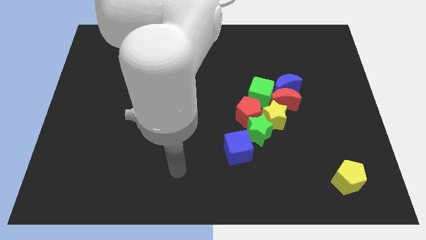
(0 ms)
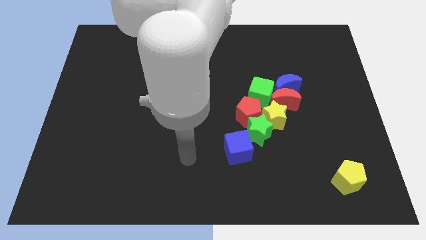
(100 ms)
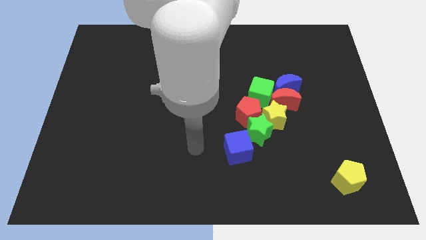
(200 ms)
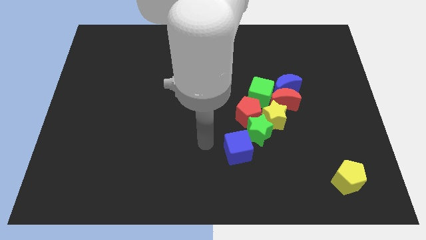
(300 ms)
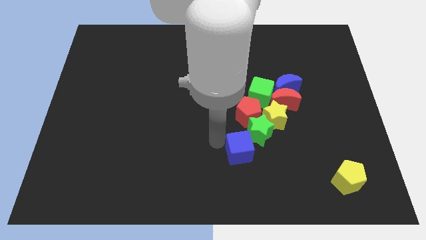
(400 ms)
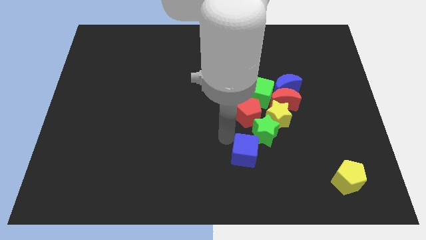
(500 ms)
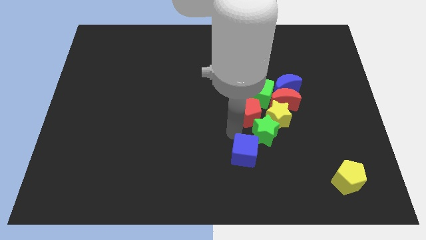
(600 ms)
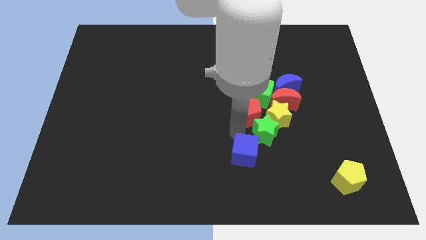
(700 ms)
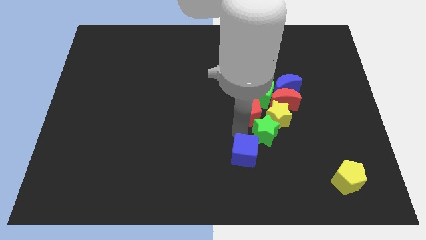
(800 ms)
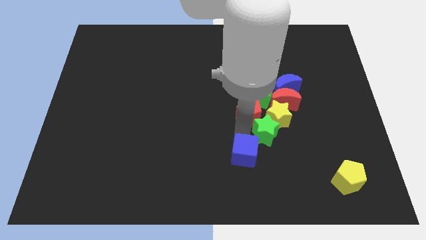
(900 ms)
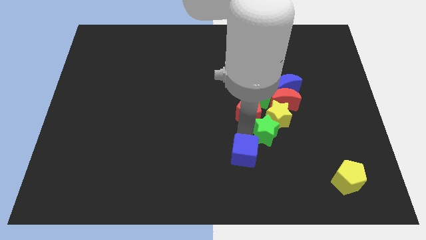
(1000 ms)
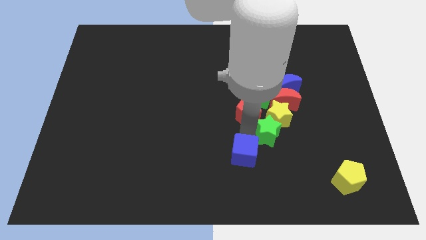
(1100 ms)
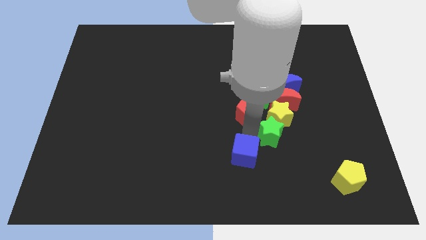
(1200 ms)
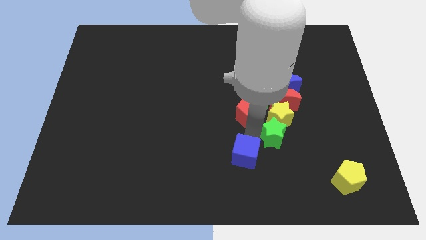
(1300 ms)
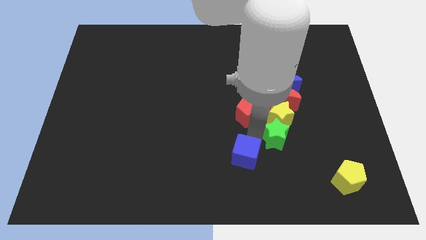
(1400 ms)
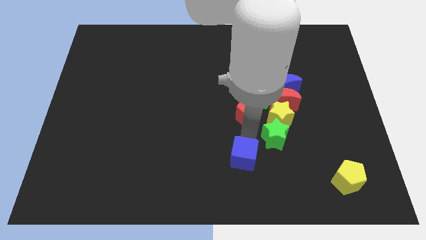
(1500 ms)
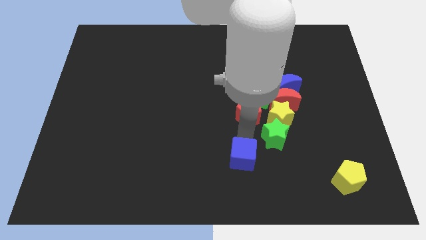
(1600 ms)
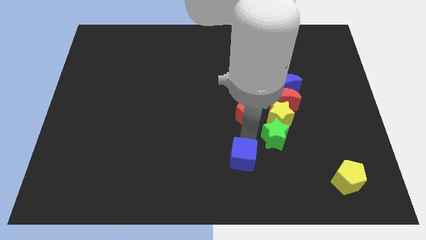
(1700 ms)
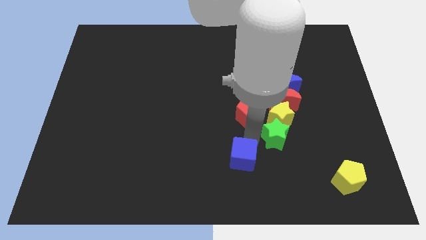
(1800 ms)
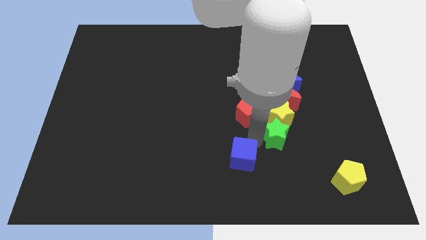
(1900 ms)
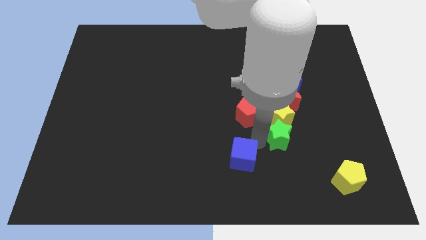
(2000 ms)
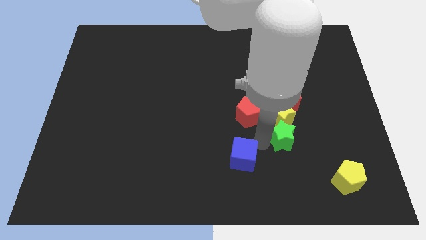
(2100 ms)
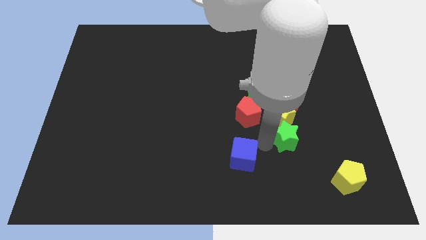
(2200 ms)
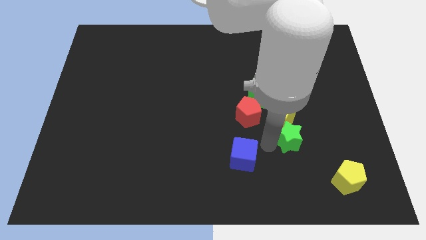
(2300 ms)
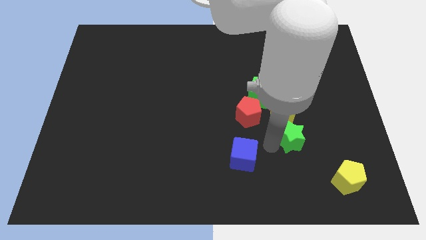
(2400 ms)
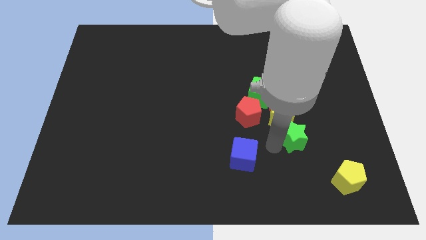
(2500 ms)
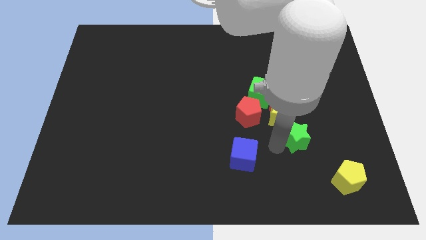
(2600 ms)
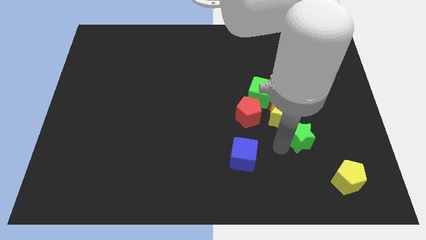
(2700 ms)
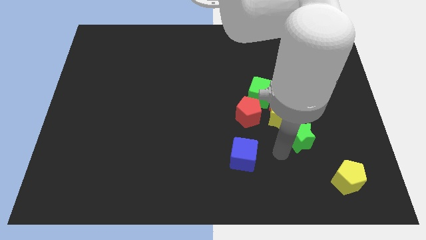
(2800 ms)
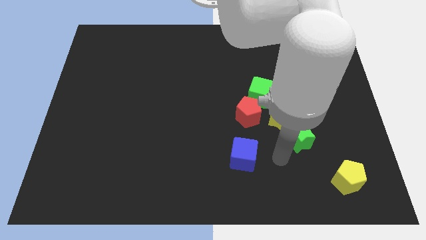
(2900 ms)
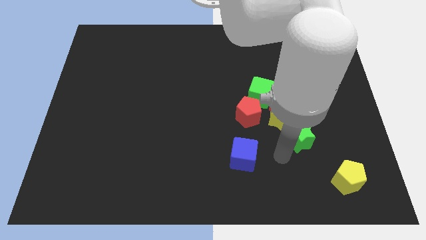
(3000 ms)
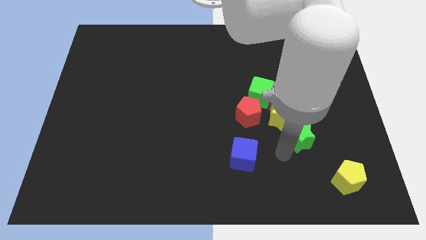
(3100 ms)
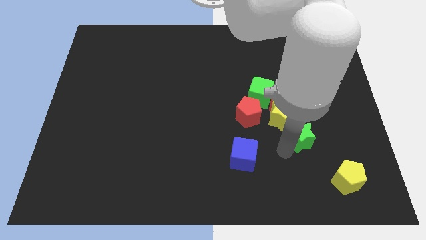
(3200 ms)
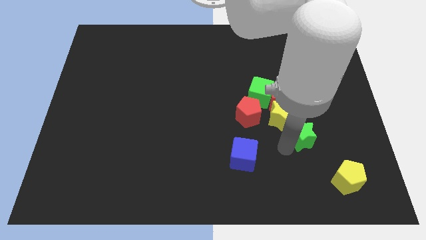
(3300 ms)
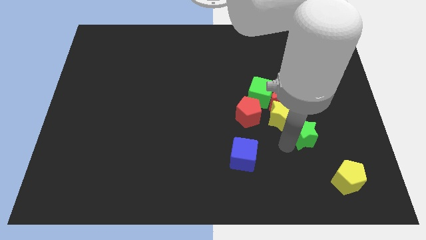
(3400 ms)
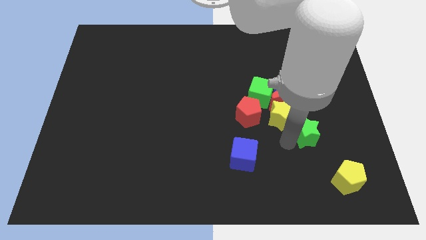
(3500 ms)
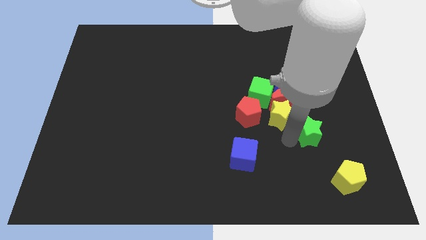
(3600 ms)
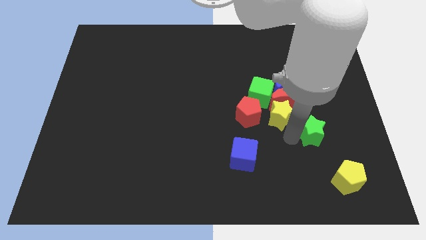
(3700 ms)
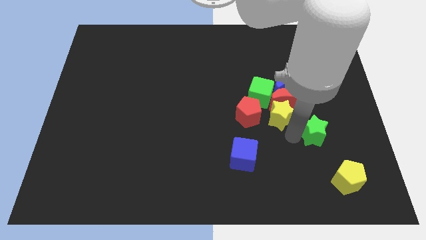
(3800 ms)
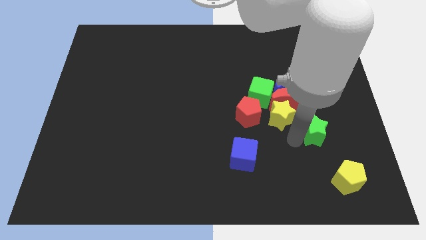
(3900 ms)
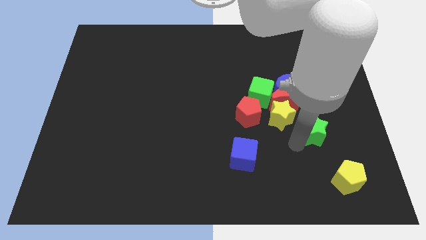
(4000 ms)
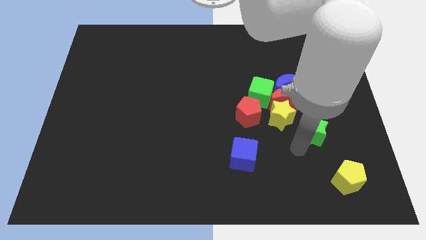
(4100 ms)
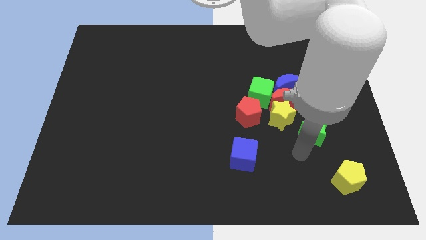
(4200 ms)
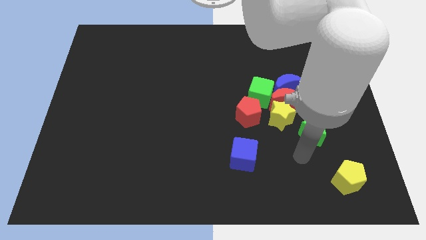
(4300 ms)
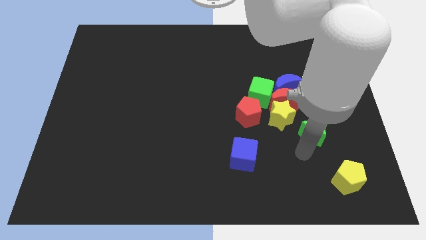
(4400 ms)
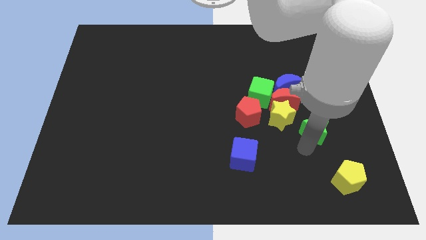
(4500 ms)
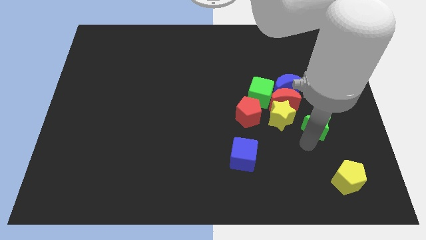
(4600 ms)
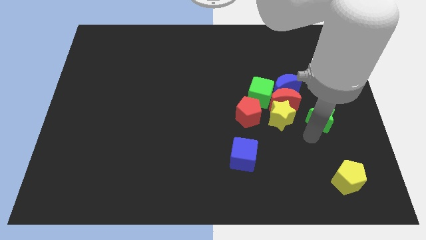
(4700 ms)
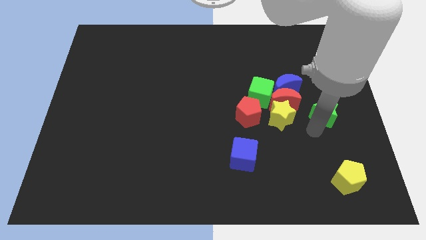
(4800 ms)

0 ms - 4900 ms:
slide the green star to the right side of the red moon

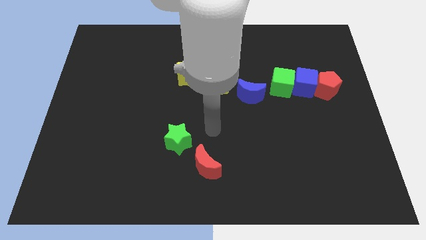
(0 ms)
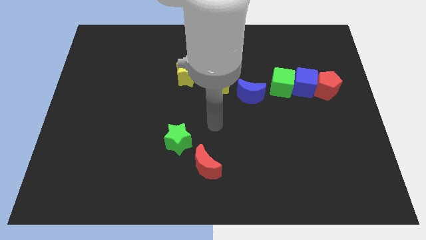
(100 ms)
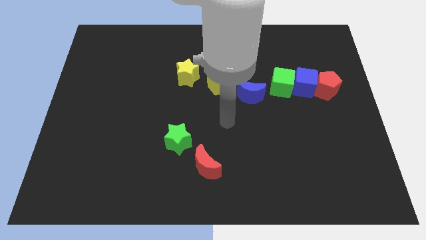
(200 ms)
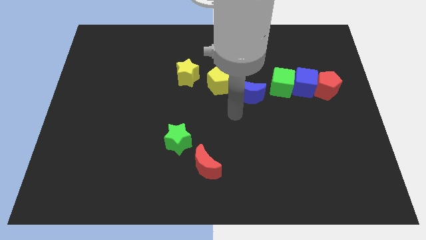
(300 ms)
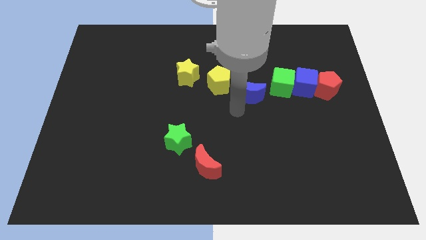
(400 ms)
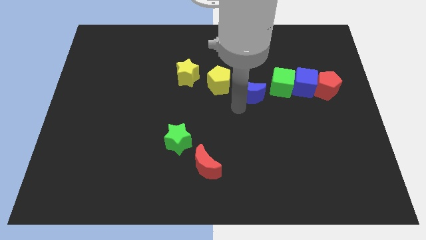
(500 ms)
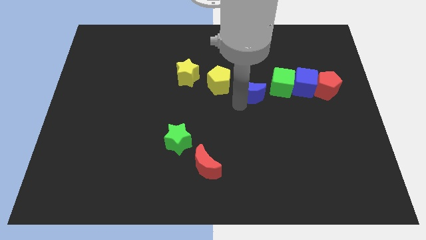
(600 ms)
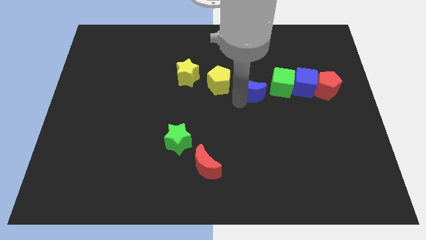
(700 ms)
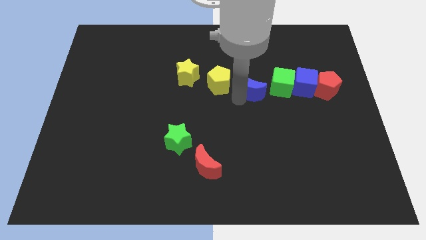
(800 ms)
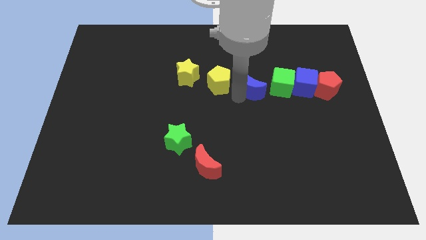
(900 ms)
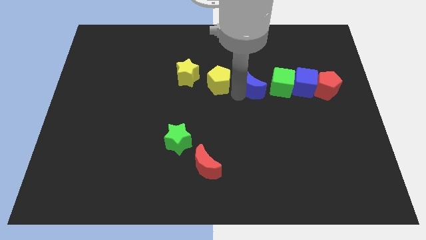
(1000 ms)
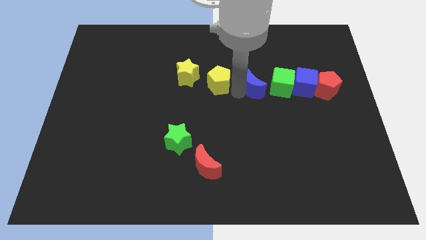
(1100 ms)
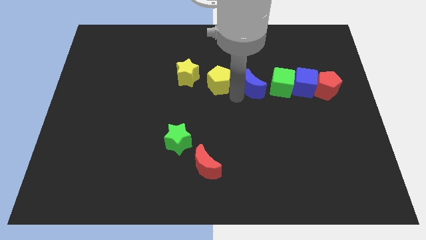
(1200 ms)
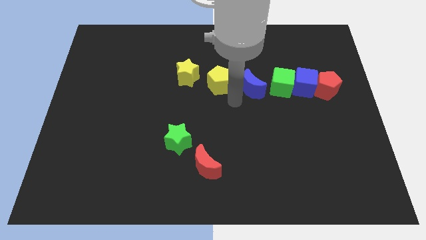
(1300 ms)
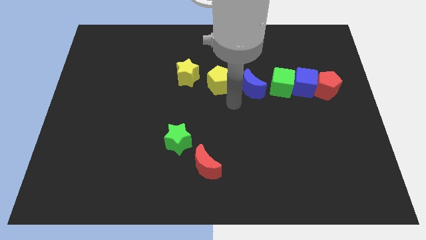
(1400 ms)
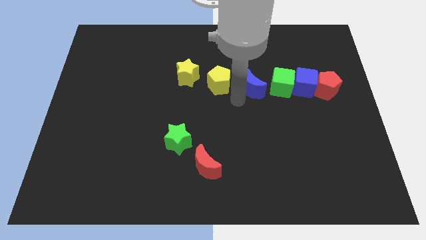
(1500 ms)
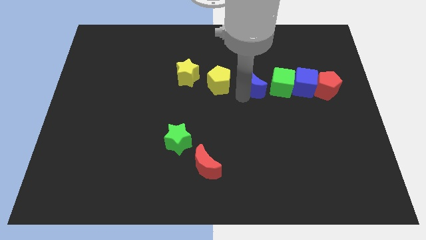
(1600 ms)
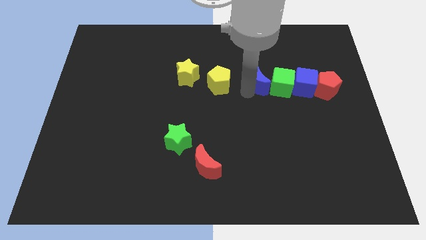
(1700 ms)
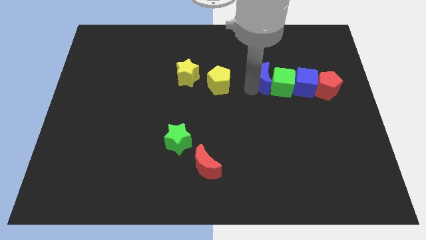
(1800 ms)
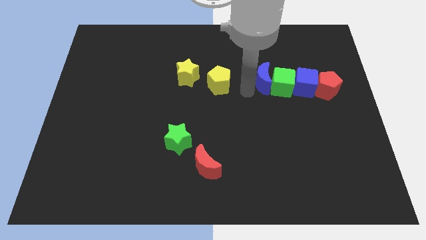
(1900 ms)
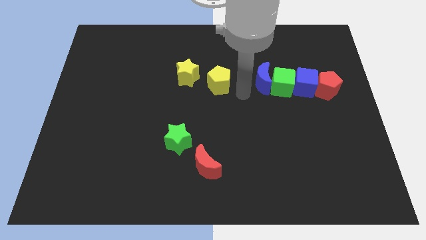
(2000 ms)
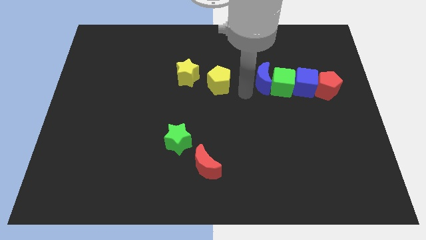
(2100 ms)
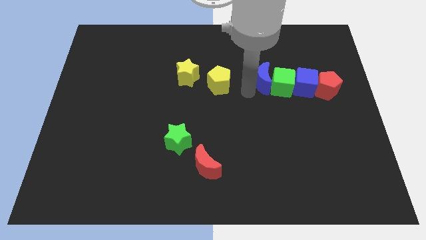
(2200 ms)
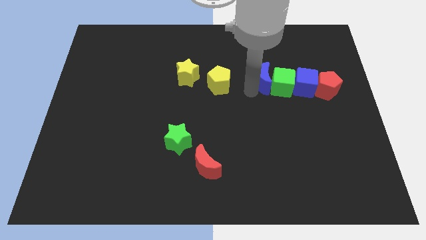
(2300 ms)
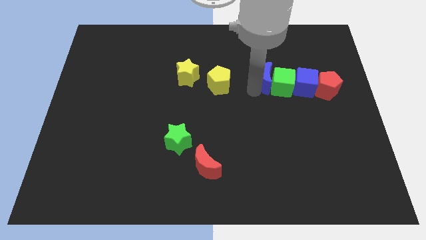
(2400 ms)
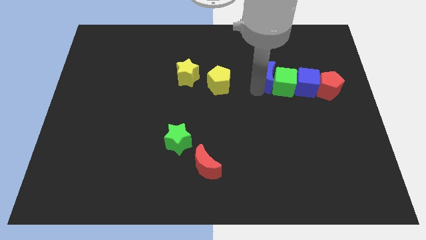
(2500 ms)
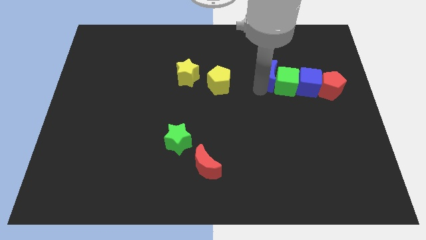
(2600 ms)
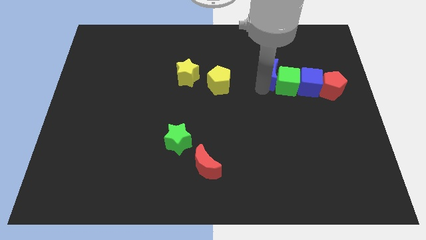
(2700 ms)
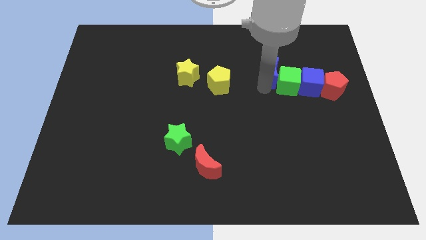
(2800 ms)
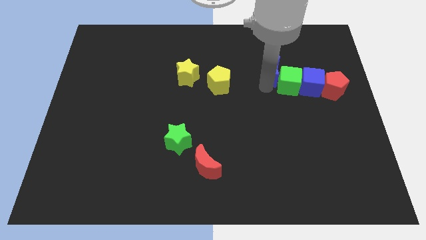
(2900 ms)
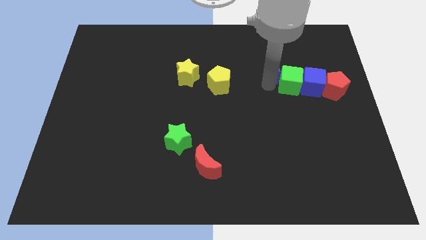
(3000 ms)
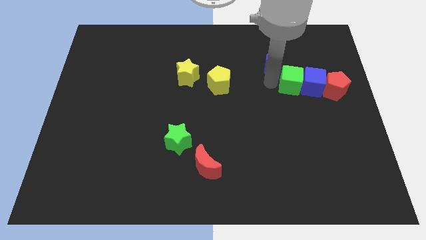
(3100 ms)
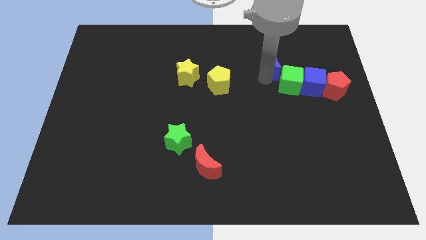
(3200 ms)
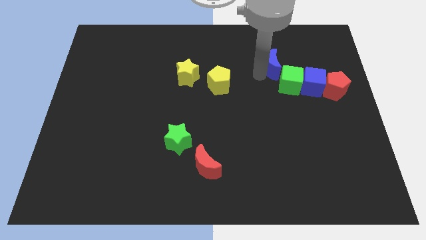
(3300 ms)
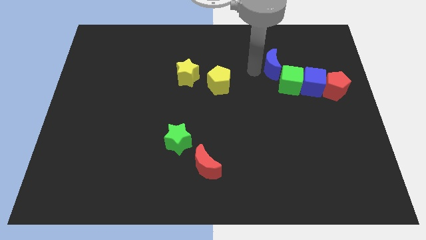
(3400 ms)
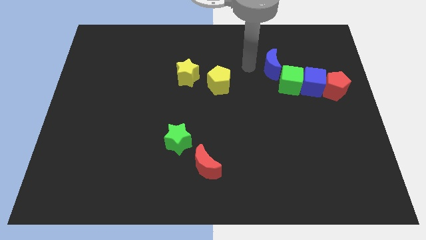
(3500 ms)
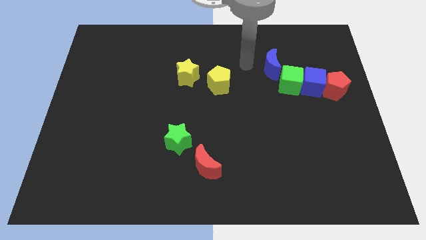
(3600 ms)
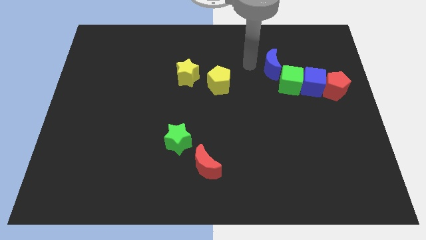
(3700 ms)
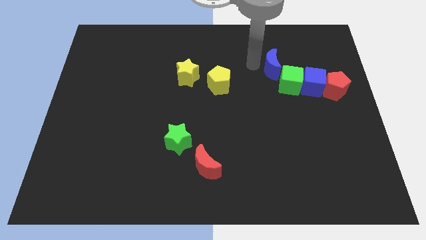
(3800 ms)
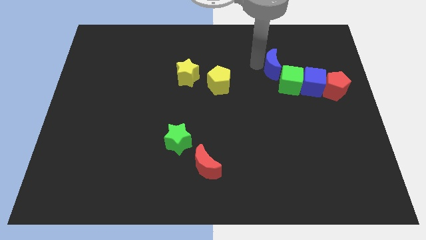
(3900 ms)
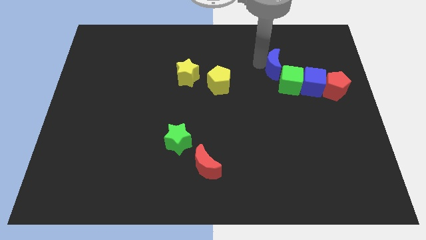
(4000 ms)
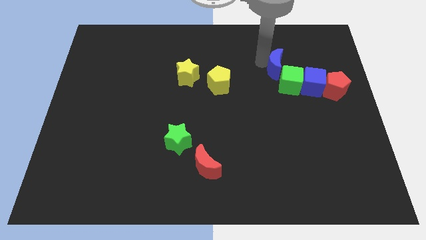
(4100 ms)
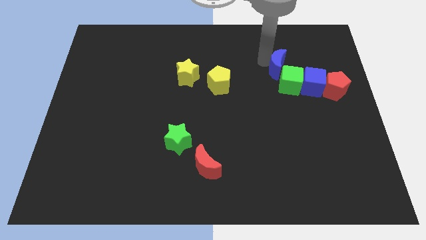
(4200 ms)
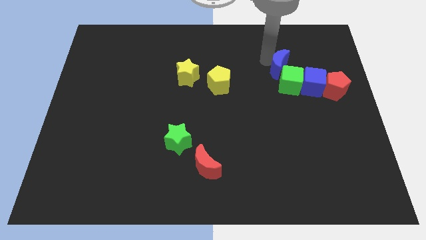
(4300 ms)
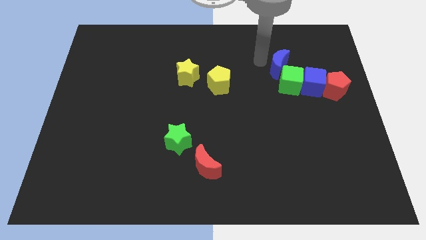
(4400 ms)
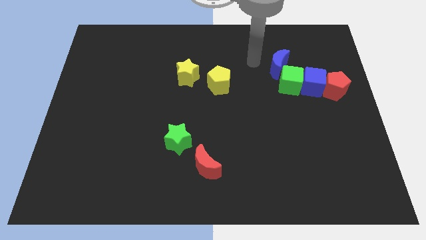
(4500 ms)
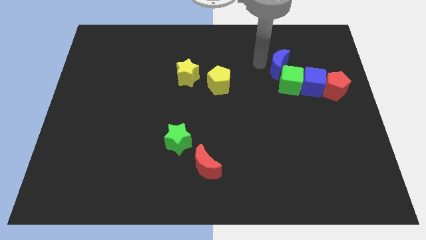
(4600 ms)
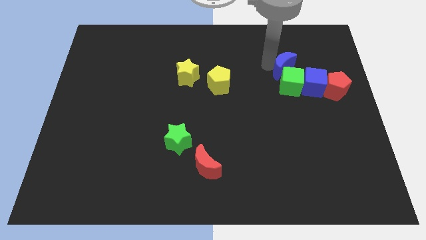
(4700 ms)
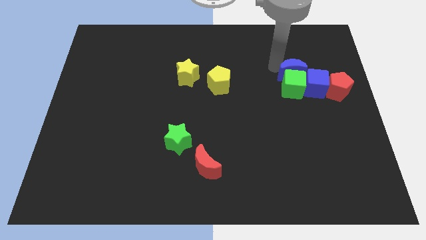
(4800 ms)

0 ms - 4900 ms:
put the blue moon to the top left of the red pentagon
